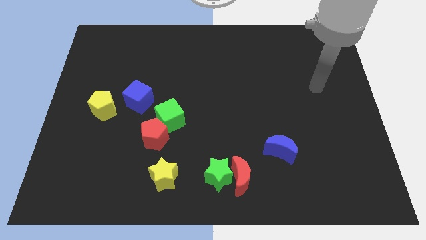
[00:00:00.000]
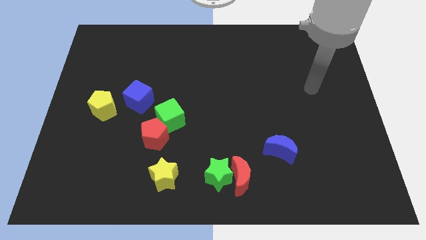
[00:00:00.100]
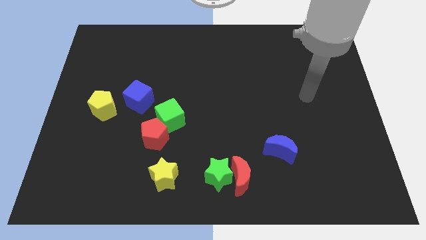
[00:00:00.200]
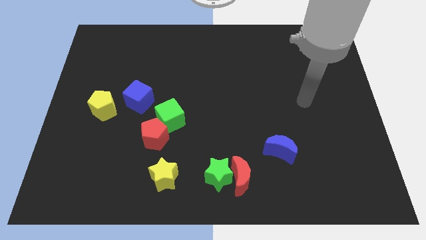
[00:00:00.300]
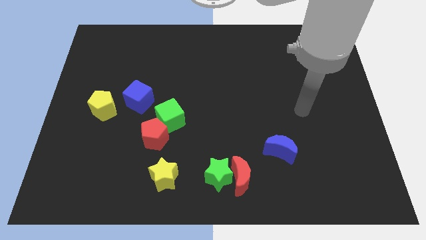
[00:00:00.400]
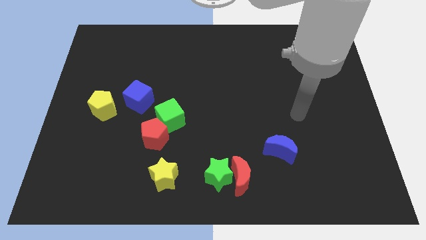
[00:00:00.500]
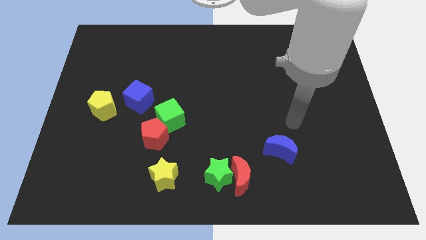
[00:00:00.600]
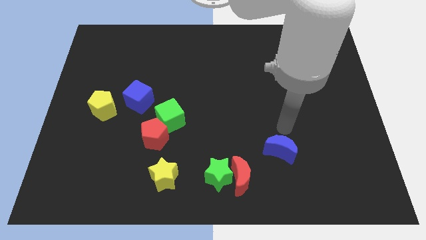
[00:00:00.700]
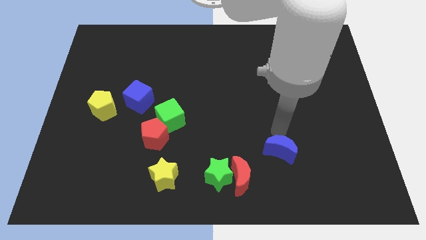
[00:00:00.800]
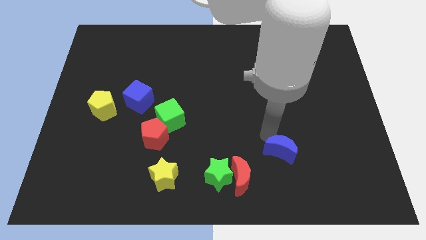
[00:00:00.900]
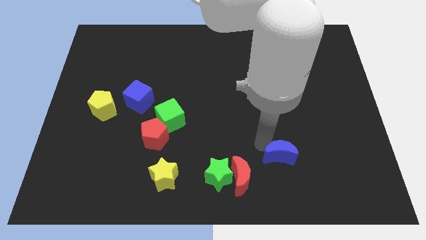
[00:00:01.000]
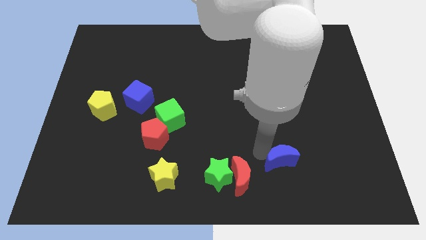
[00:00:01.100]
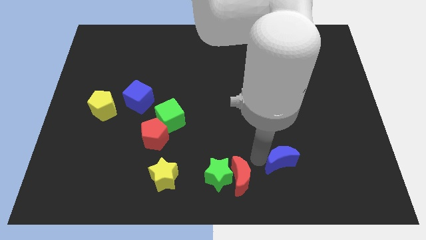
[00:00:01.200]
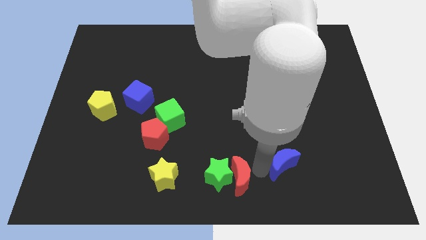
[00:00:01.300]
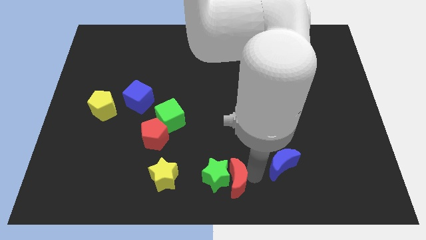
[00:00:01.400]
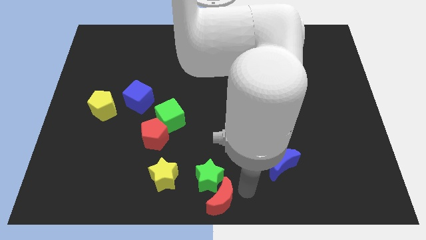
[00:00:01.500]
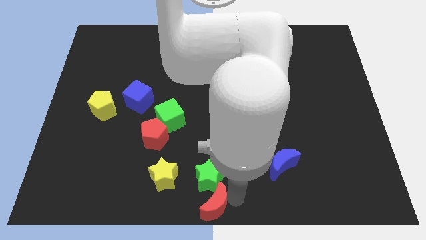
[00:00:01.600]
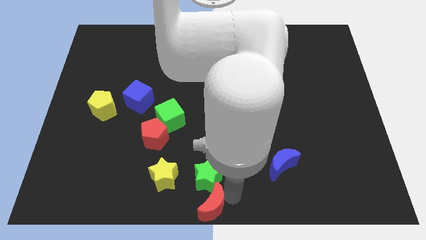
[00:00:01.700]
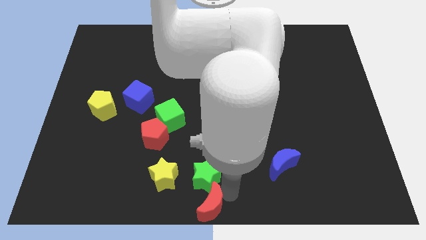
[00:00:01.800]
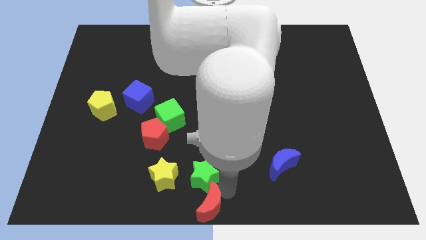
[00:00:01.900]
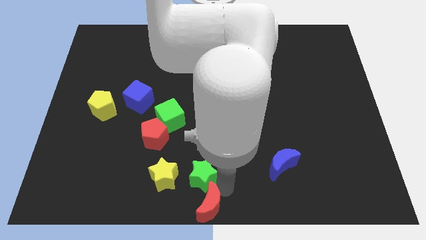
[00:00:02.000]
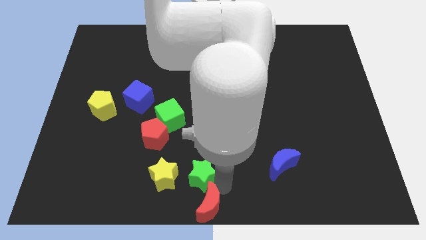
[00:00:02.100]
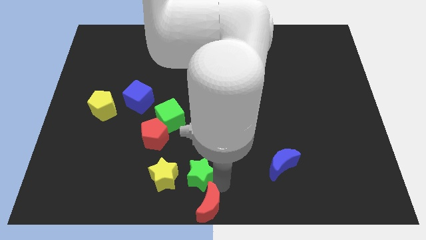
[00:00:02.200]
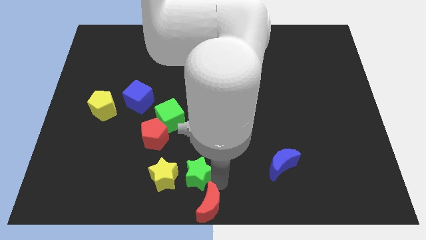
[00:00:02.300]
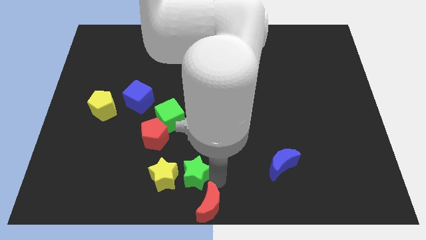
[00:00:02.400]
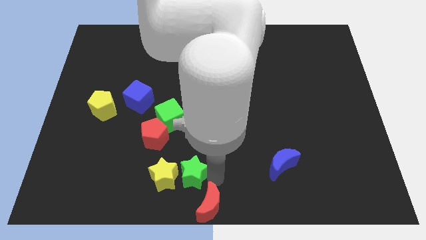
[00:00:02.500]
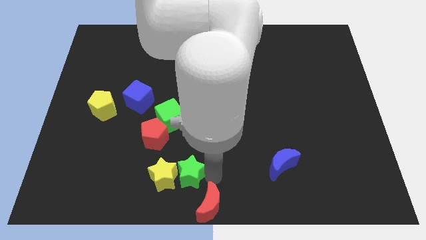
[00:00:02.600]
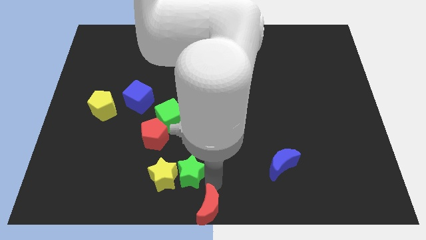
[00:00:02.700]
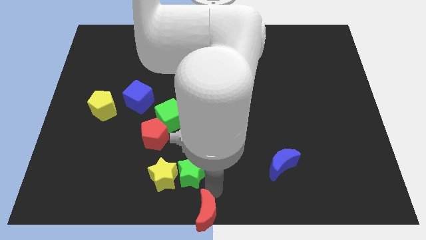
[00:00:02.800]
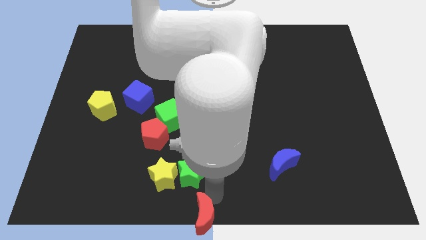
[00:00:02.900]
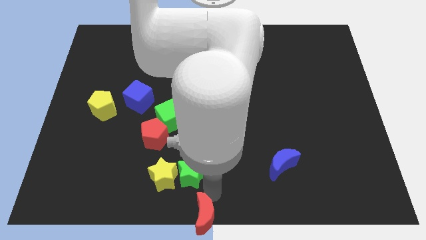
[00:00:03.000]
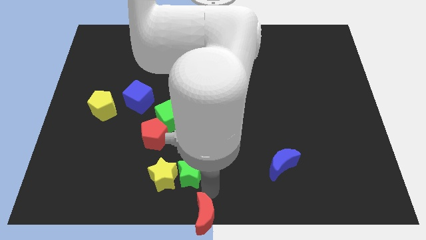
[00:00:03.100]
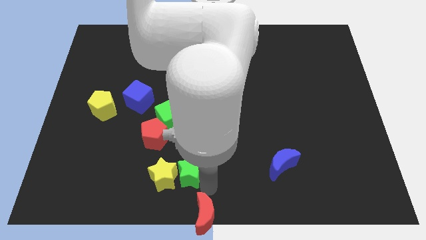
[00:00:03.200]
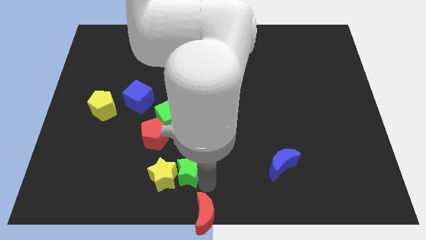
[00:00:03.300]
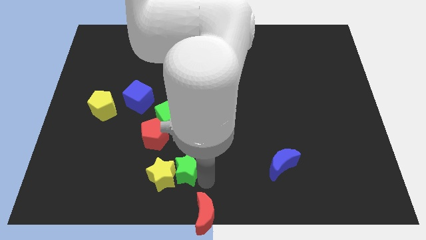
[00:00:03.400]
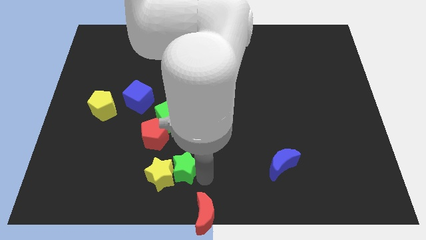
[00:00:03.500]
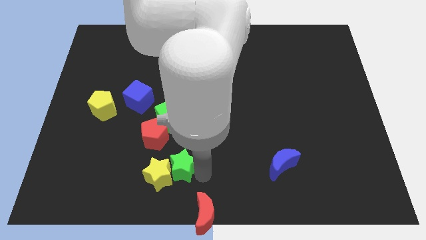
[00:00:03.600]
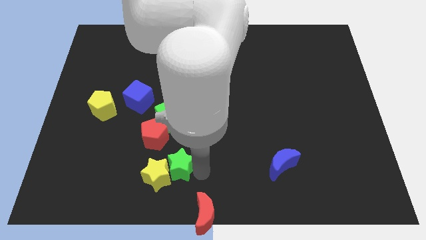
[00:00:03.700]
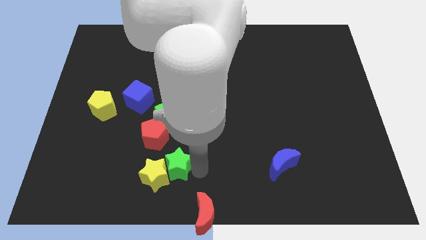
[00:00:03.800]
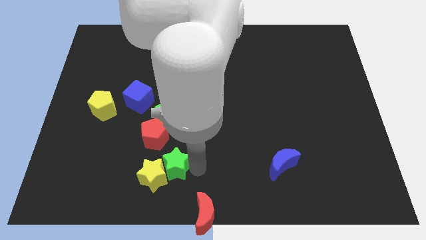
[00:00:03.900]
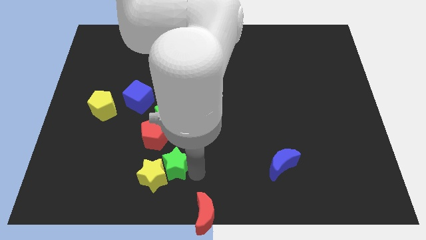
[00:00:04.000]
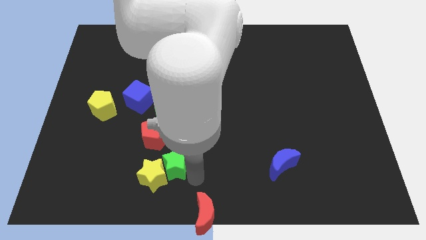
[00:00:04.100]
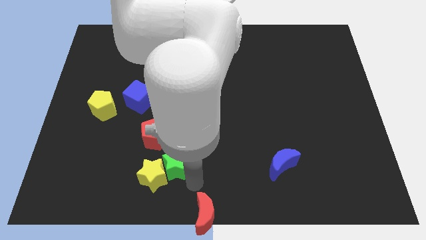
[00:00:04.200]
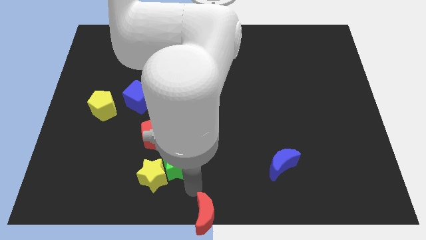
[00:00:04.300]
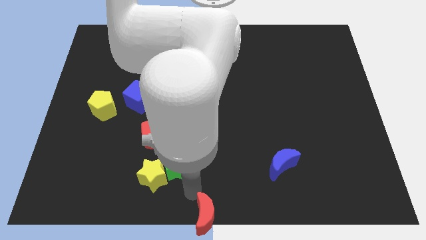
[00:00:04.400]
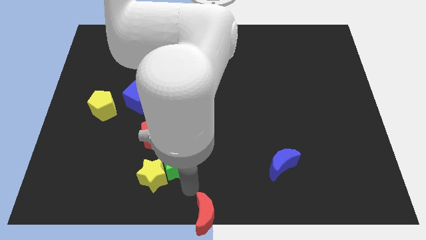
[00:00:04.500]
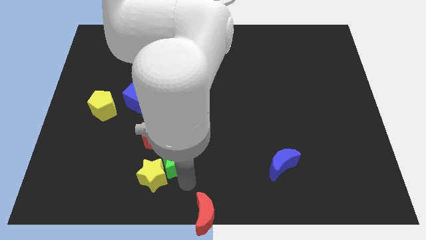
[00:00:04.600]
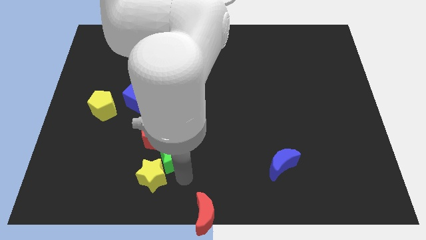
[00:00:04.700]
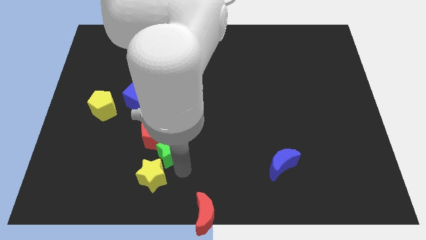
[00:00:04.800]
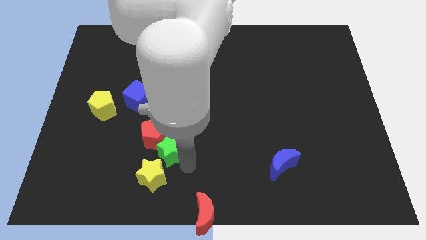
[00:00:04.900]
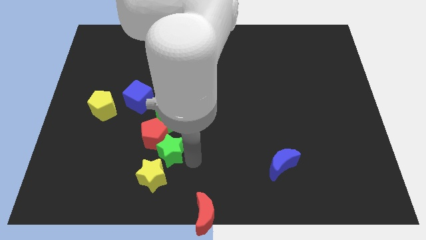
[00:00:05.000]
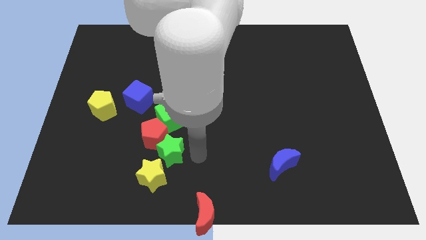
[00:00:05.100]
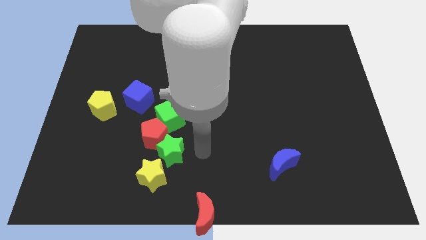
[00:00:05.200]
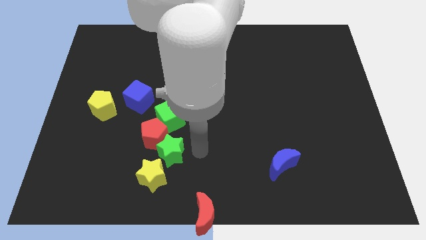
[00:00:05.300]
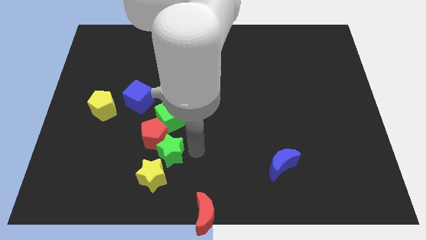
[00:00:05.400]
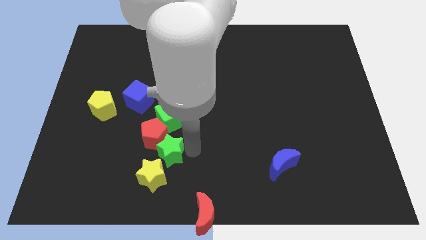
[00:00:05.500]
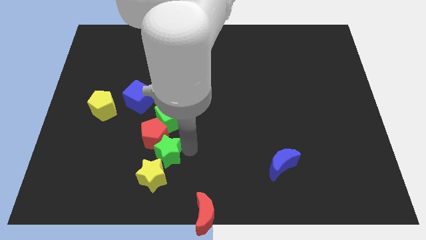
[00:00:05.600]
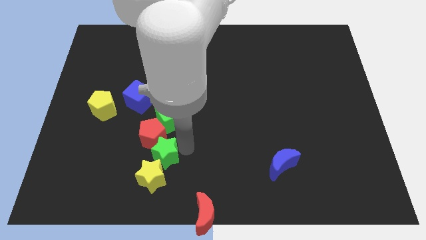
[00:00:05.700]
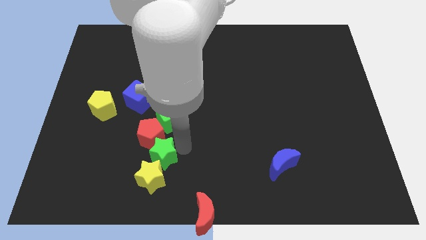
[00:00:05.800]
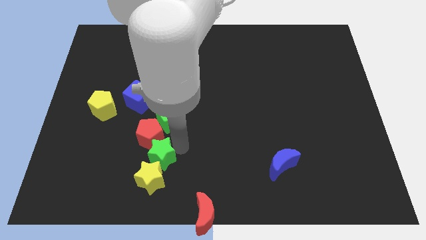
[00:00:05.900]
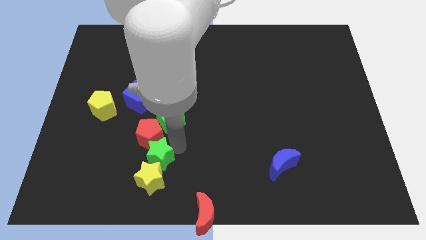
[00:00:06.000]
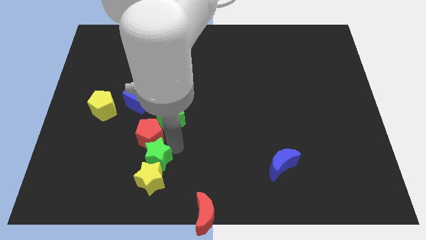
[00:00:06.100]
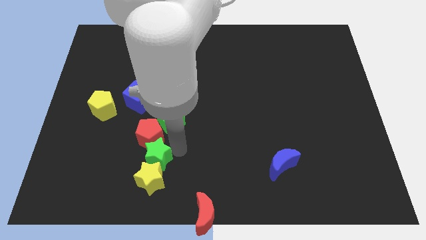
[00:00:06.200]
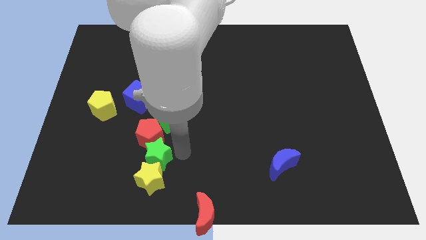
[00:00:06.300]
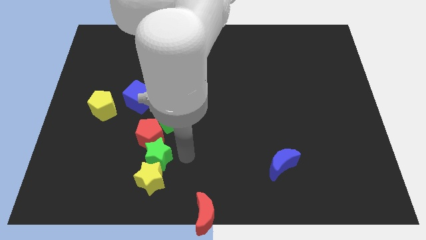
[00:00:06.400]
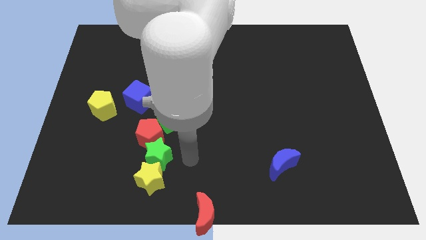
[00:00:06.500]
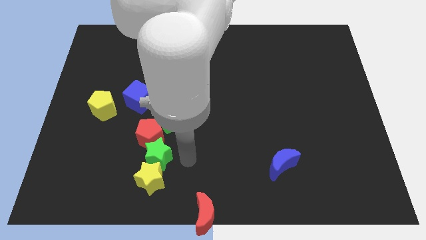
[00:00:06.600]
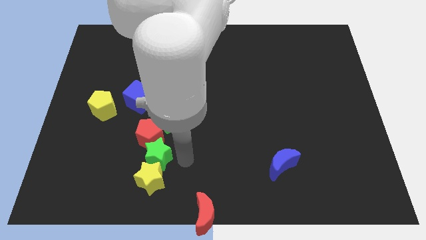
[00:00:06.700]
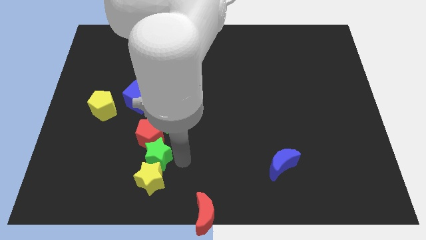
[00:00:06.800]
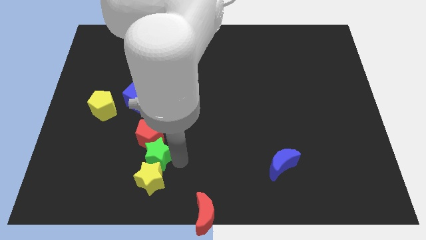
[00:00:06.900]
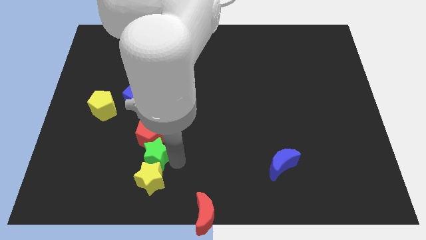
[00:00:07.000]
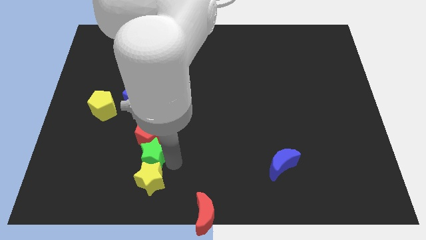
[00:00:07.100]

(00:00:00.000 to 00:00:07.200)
push the green star to the bottom left side of the red pentagon
